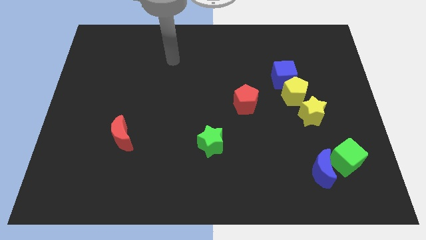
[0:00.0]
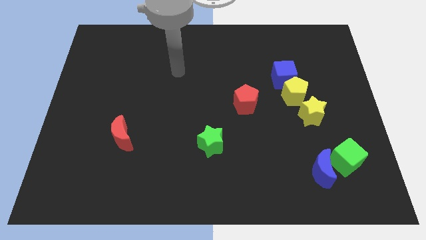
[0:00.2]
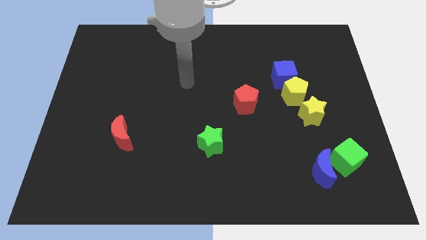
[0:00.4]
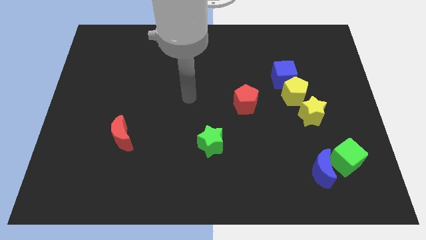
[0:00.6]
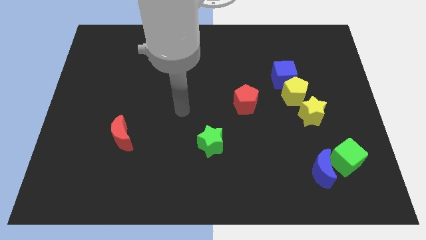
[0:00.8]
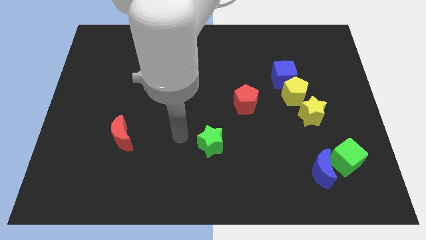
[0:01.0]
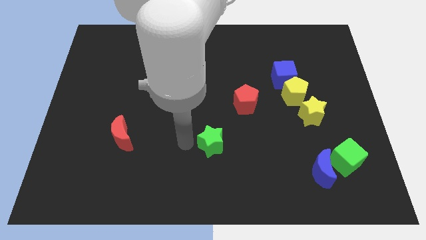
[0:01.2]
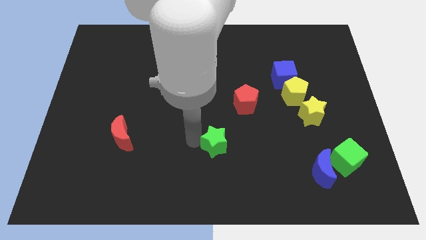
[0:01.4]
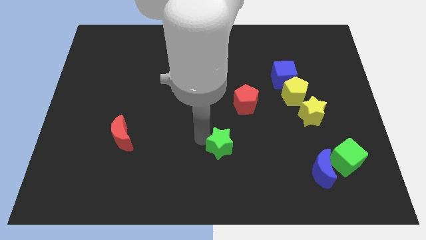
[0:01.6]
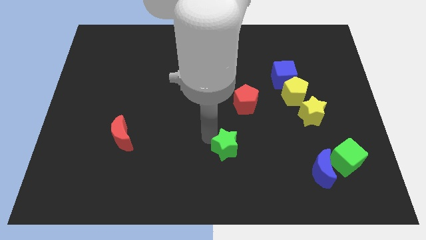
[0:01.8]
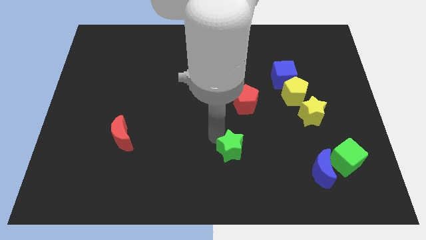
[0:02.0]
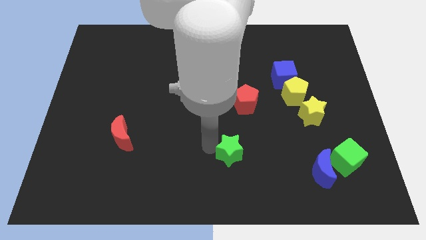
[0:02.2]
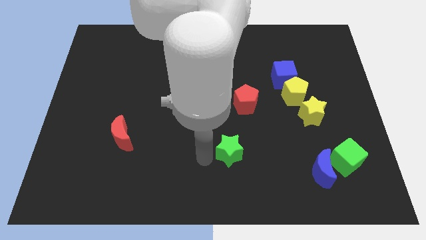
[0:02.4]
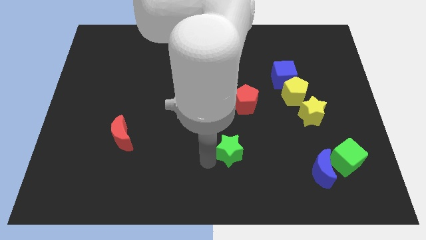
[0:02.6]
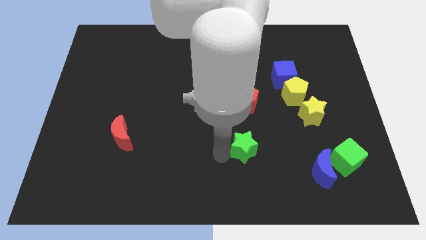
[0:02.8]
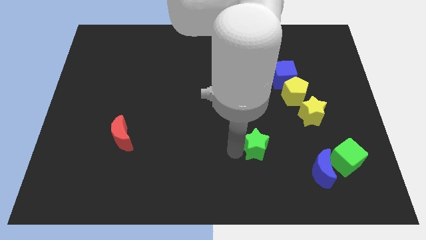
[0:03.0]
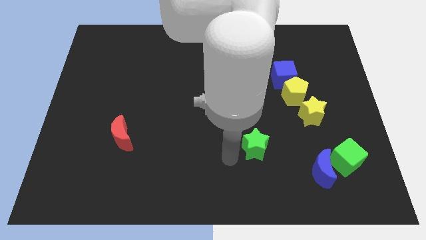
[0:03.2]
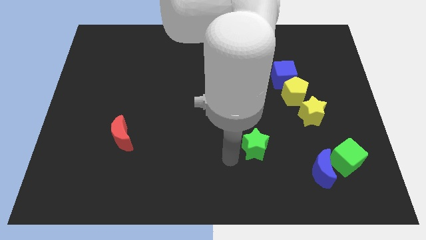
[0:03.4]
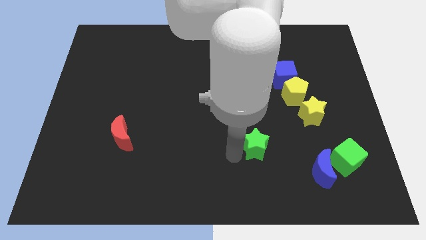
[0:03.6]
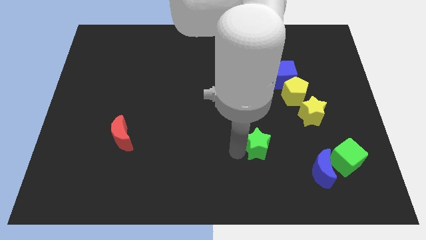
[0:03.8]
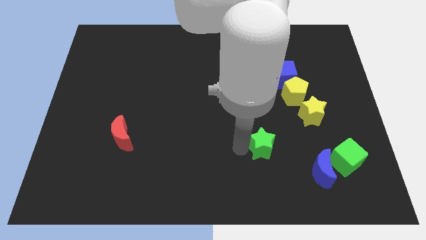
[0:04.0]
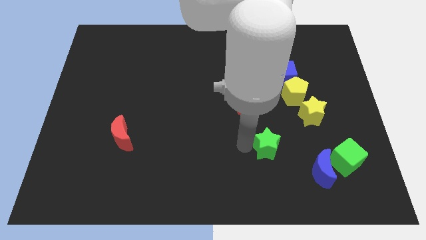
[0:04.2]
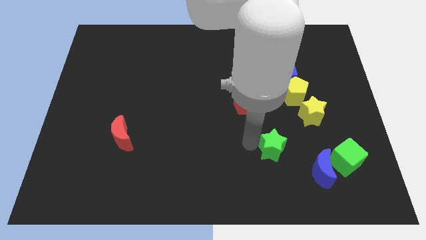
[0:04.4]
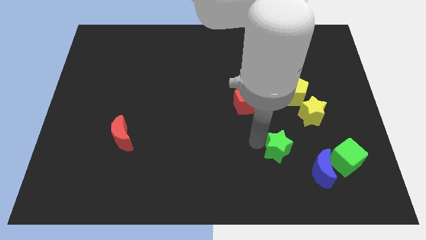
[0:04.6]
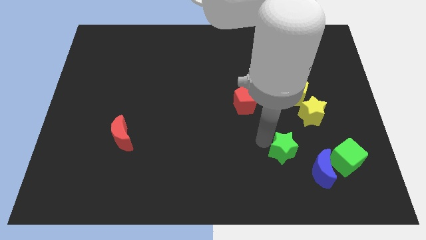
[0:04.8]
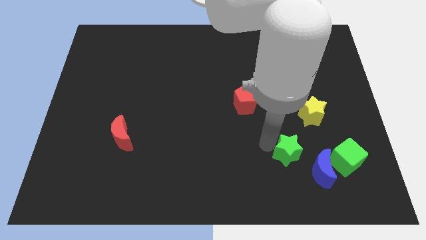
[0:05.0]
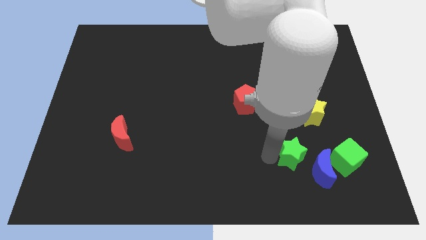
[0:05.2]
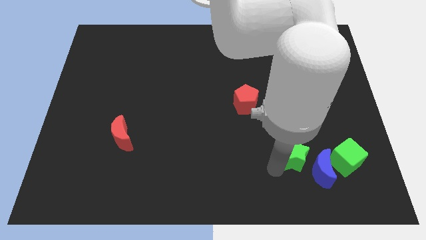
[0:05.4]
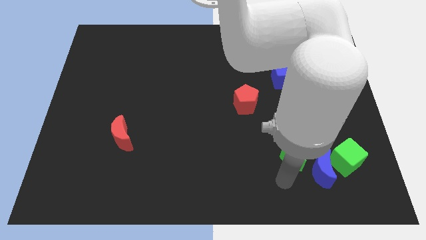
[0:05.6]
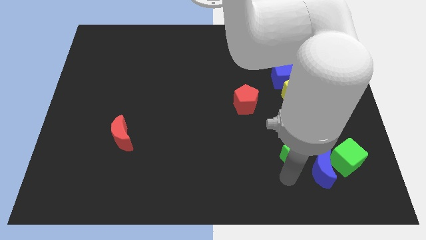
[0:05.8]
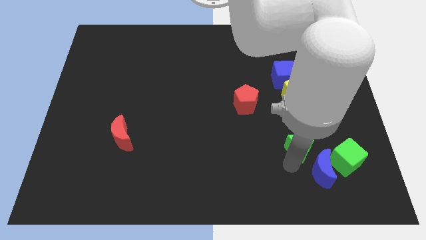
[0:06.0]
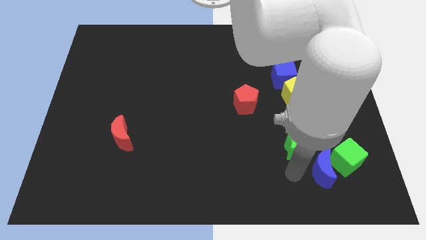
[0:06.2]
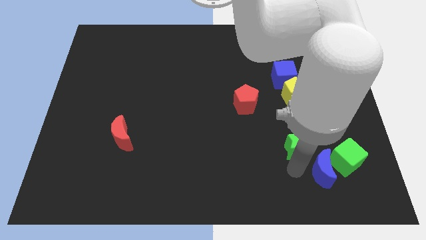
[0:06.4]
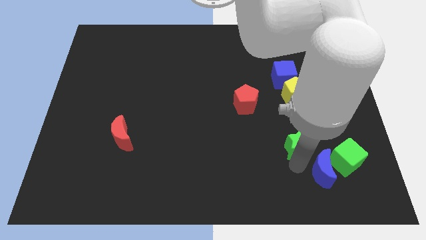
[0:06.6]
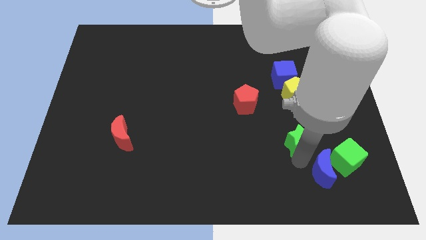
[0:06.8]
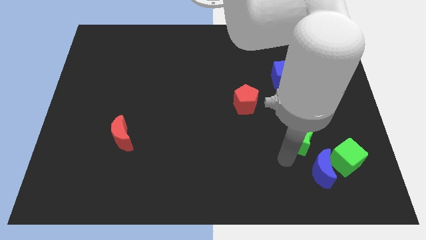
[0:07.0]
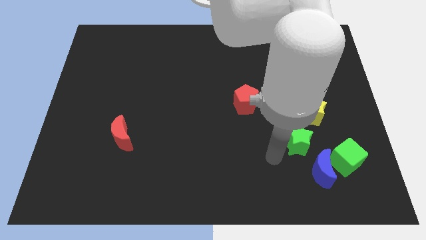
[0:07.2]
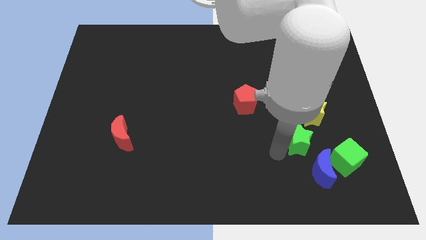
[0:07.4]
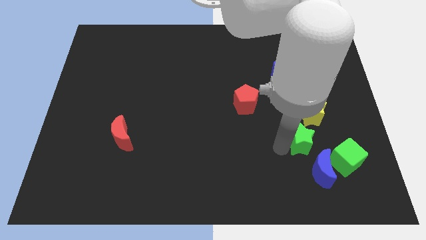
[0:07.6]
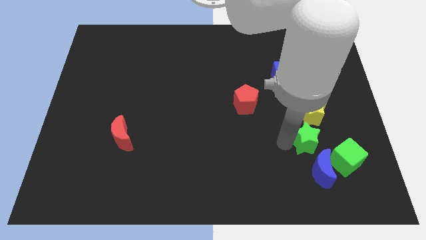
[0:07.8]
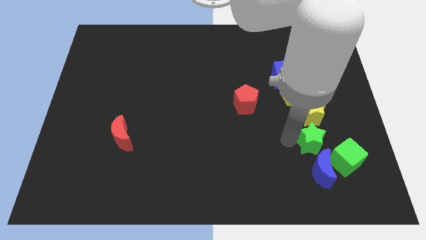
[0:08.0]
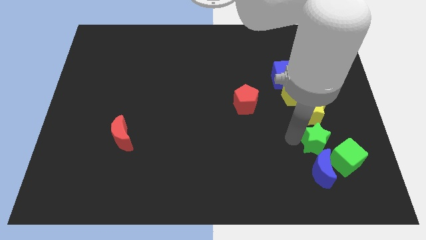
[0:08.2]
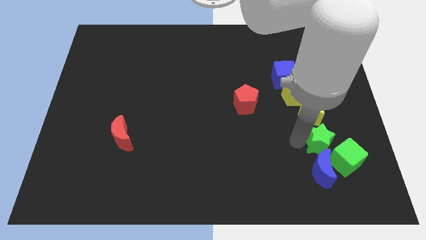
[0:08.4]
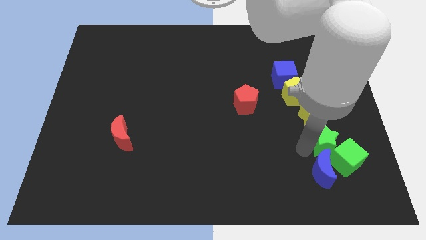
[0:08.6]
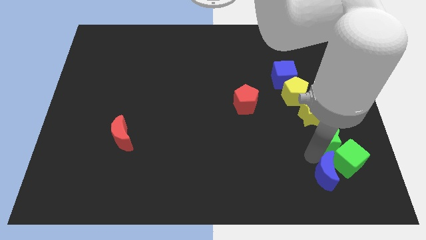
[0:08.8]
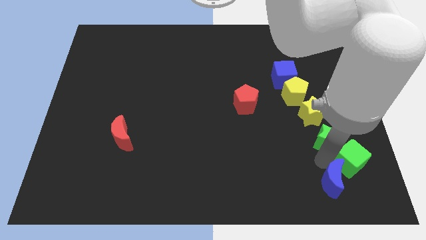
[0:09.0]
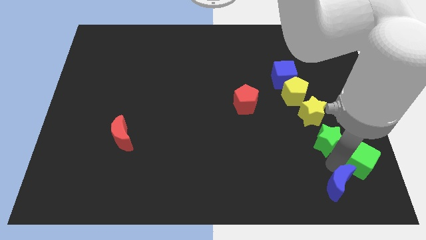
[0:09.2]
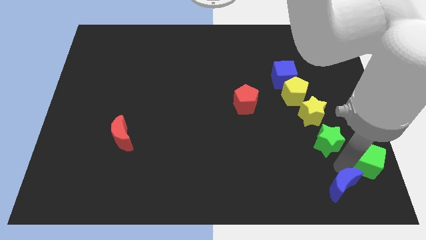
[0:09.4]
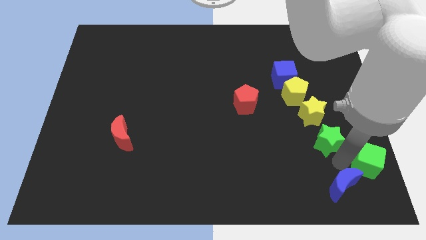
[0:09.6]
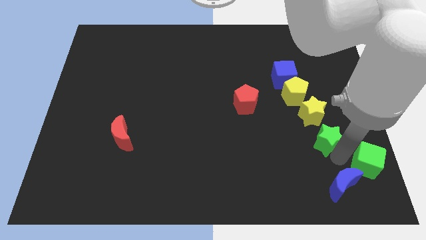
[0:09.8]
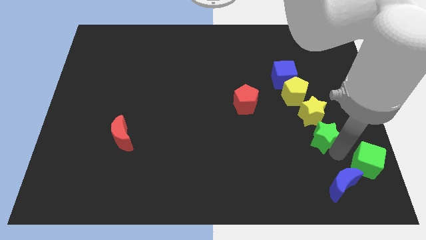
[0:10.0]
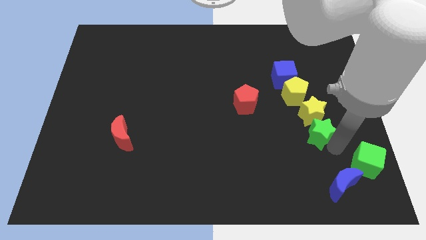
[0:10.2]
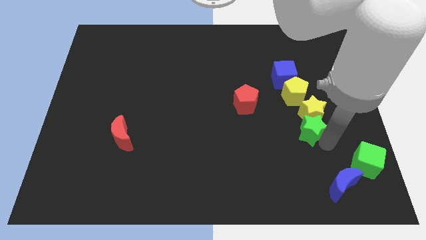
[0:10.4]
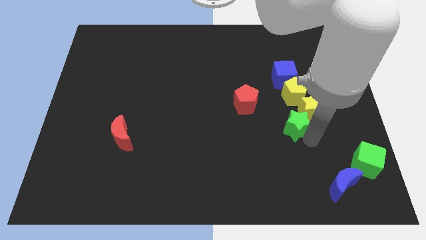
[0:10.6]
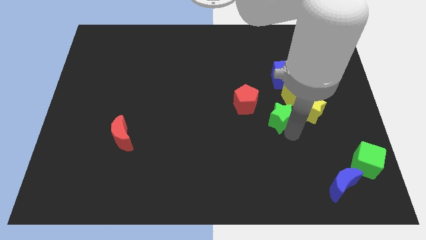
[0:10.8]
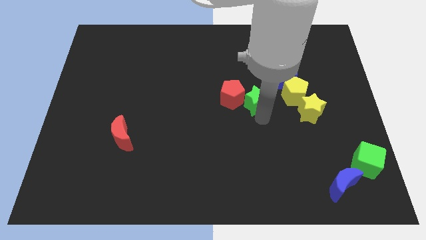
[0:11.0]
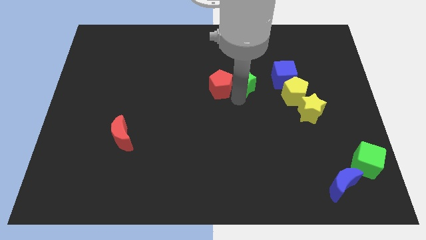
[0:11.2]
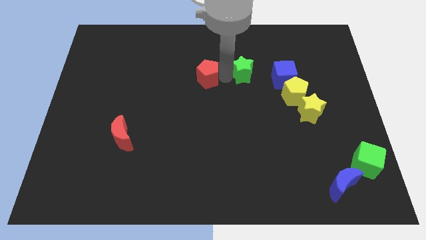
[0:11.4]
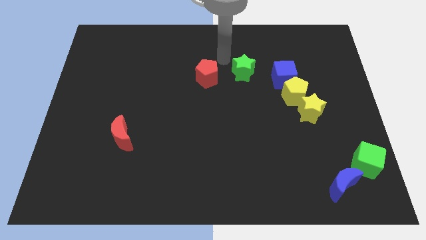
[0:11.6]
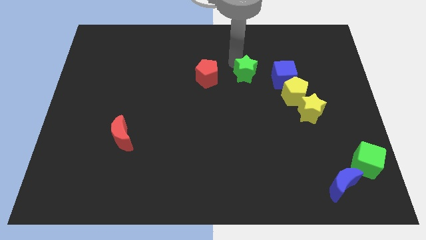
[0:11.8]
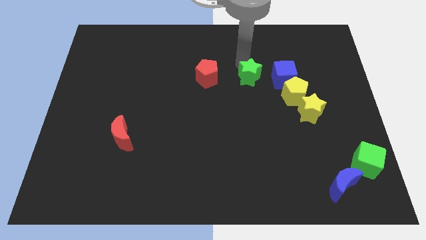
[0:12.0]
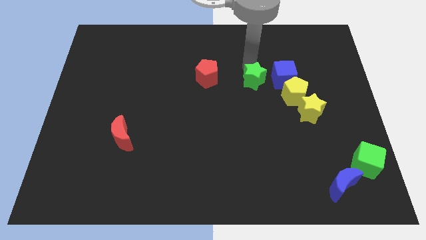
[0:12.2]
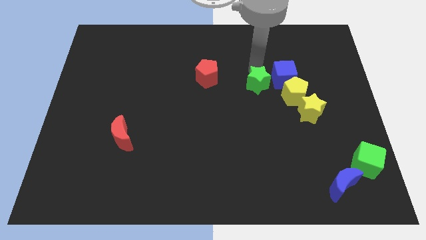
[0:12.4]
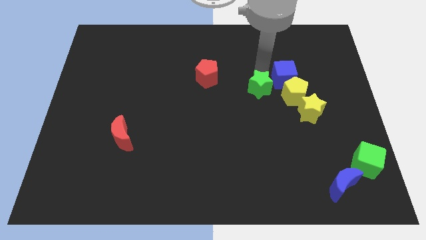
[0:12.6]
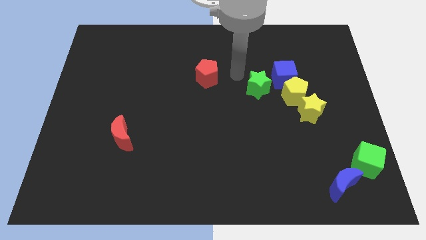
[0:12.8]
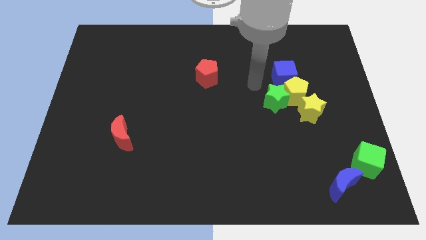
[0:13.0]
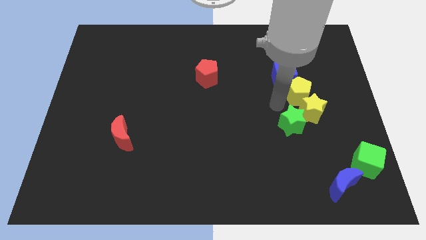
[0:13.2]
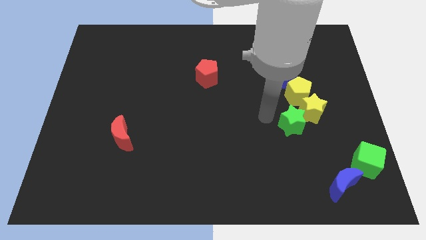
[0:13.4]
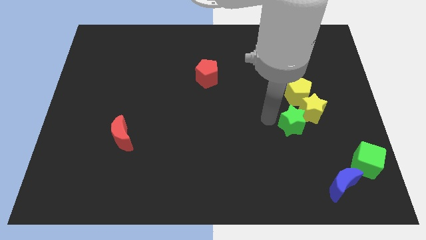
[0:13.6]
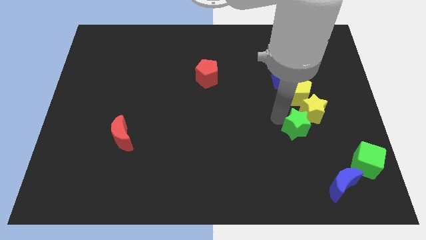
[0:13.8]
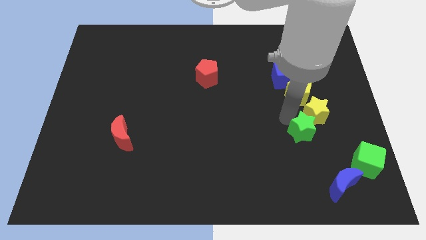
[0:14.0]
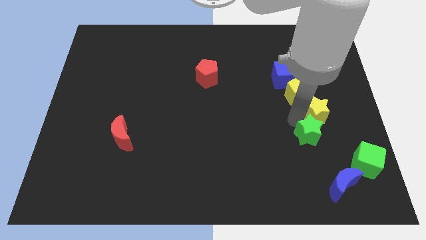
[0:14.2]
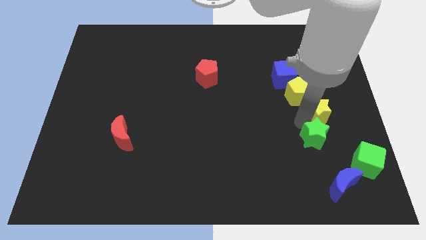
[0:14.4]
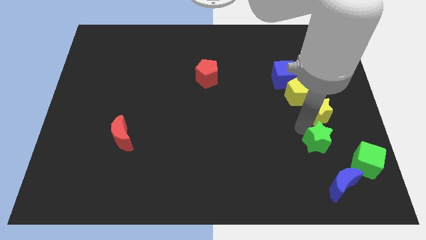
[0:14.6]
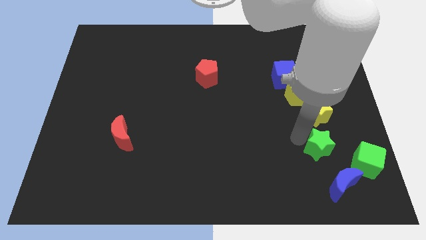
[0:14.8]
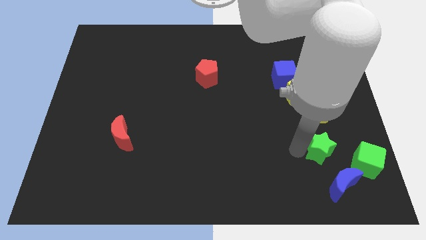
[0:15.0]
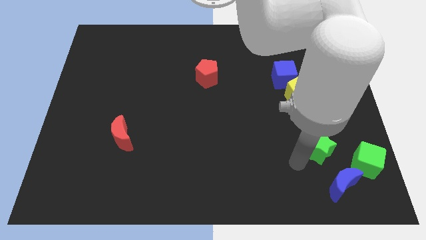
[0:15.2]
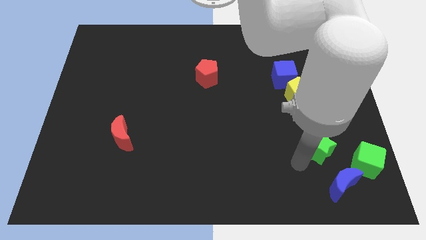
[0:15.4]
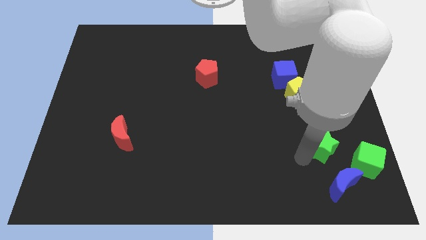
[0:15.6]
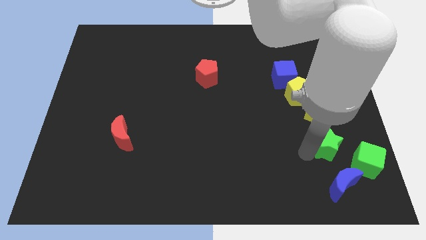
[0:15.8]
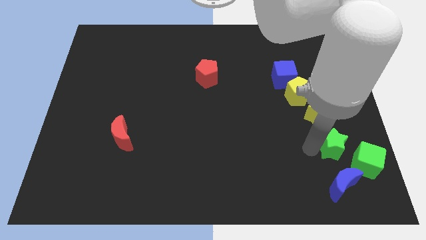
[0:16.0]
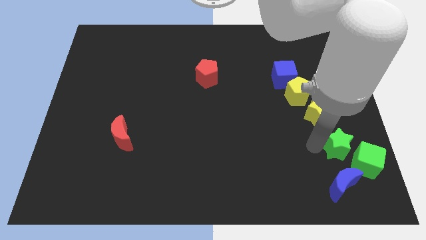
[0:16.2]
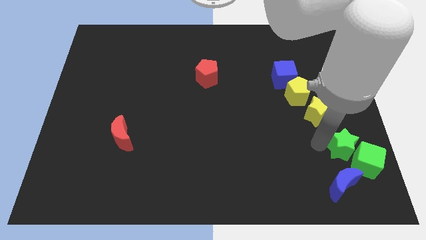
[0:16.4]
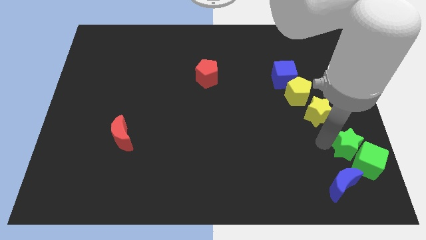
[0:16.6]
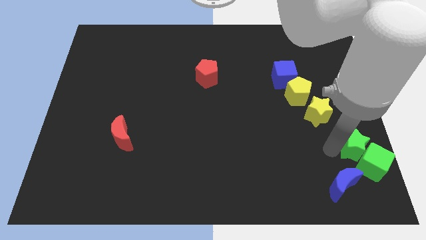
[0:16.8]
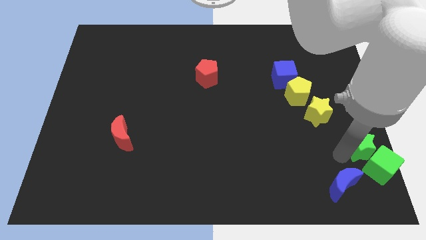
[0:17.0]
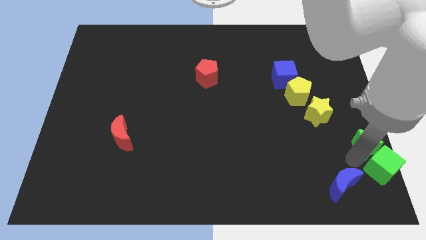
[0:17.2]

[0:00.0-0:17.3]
move the green star to the right side of the board
